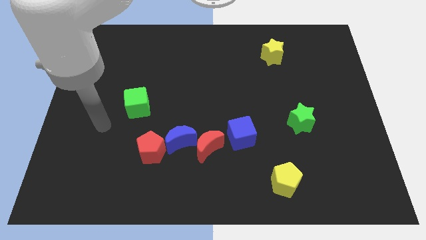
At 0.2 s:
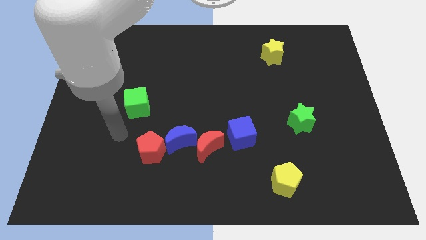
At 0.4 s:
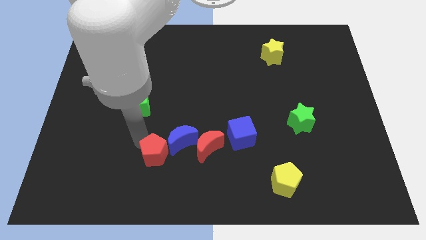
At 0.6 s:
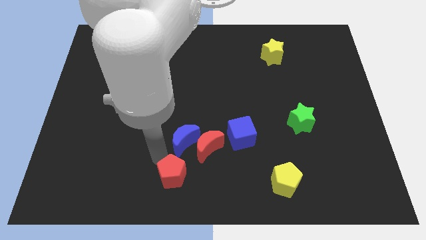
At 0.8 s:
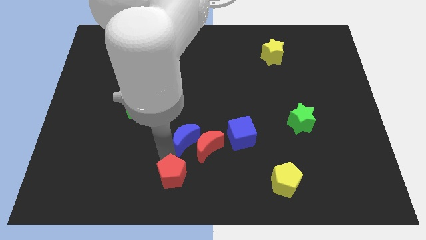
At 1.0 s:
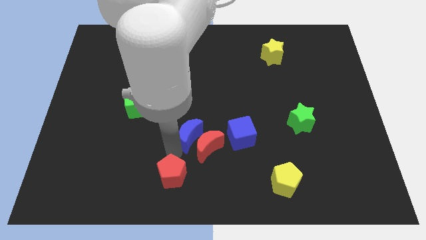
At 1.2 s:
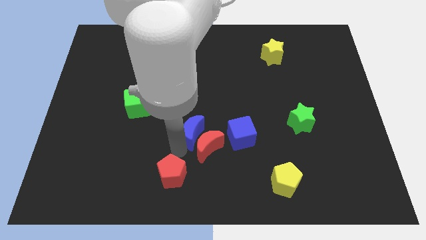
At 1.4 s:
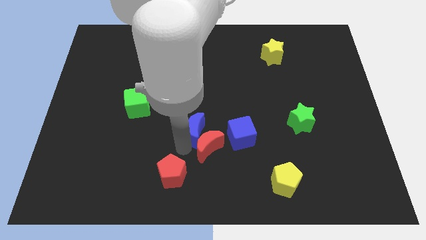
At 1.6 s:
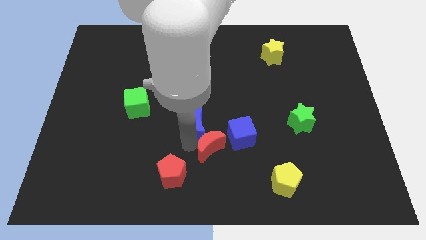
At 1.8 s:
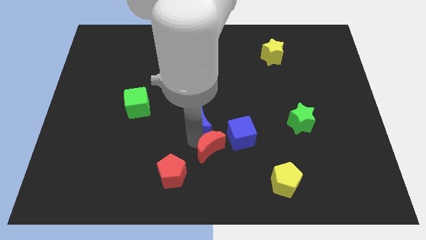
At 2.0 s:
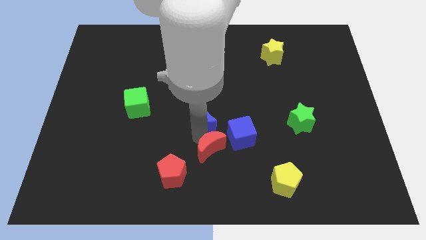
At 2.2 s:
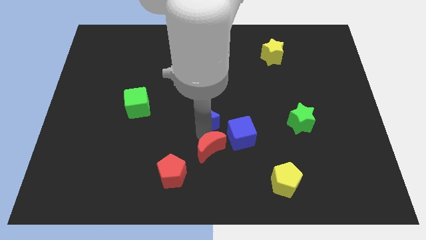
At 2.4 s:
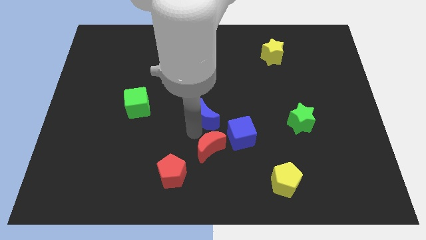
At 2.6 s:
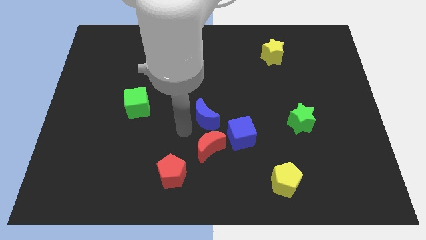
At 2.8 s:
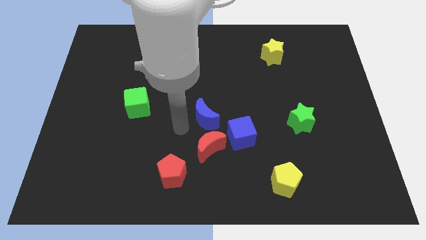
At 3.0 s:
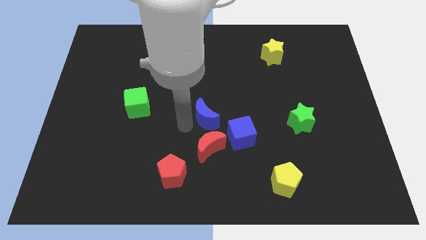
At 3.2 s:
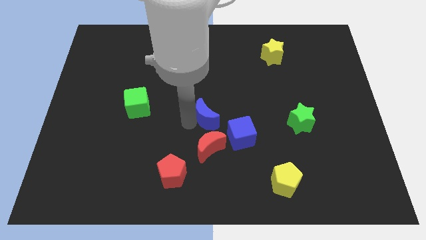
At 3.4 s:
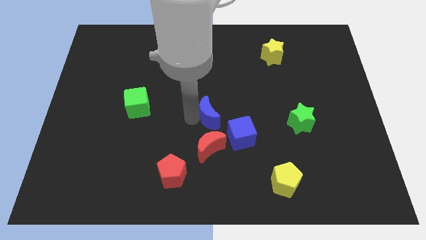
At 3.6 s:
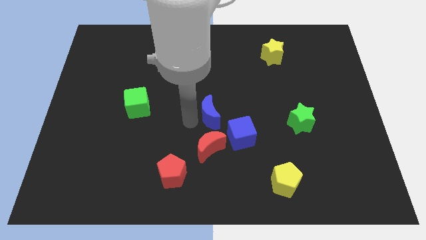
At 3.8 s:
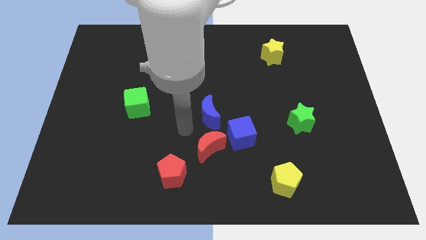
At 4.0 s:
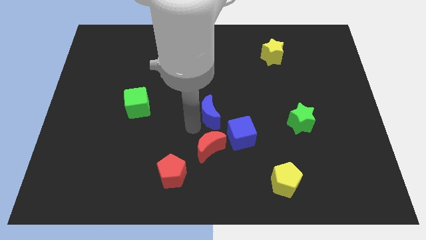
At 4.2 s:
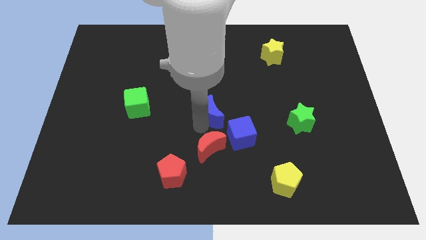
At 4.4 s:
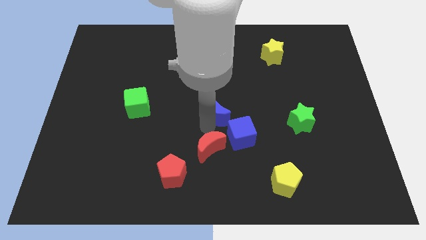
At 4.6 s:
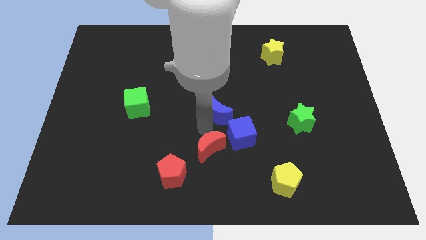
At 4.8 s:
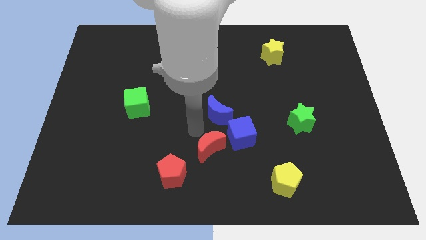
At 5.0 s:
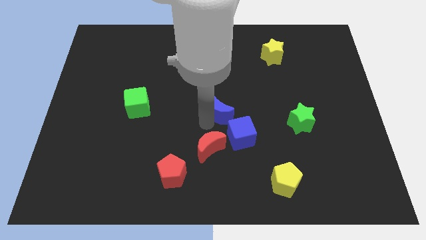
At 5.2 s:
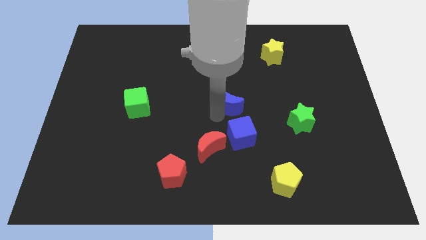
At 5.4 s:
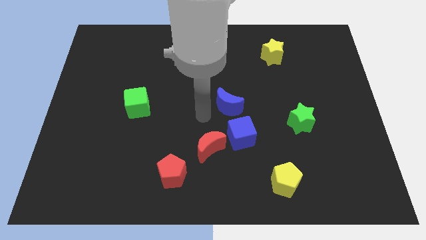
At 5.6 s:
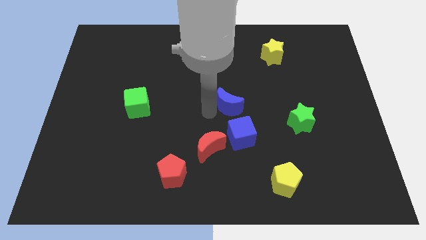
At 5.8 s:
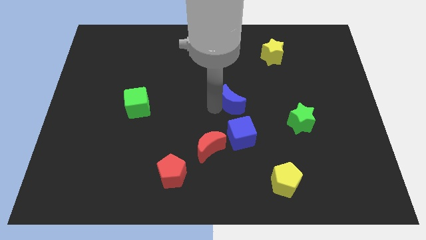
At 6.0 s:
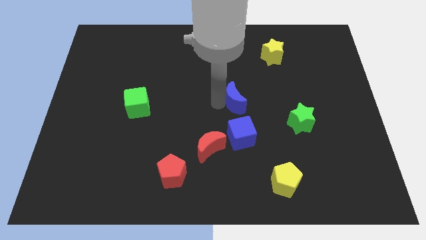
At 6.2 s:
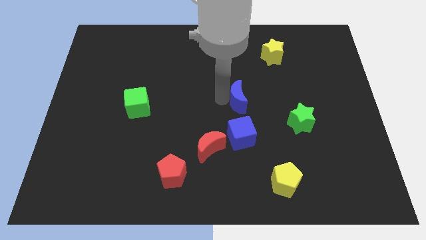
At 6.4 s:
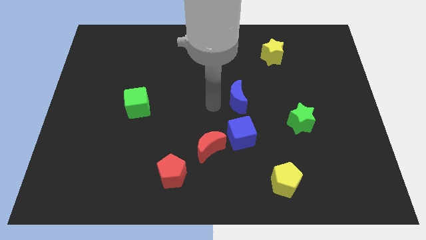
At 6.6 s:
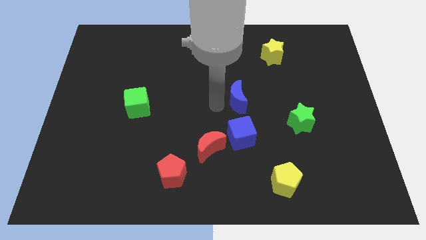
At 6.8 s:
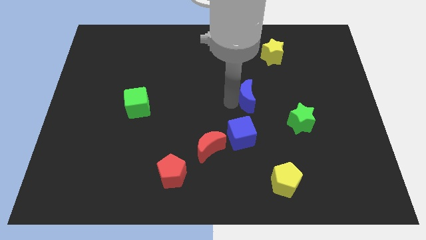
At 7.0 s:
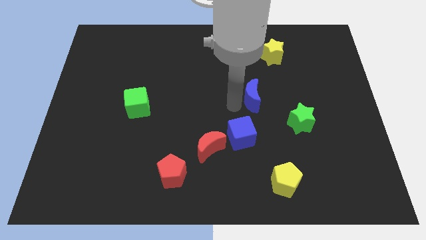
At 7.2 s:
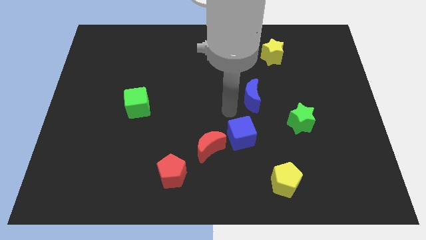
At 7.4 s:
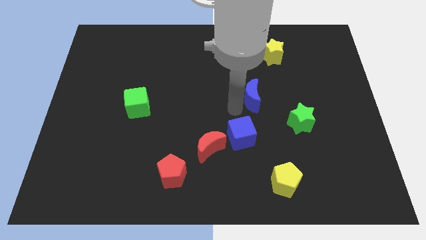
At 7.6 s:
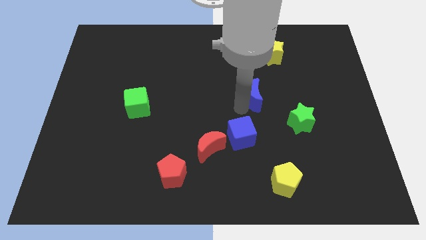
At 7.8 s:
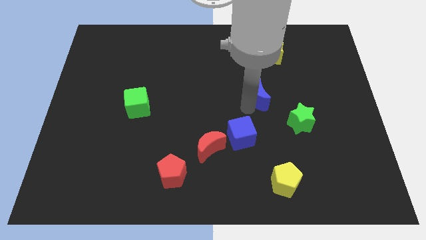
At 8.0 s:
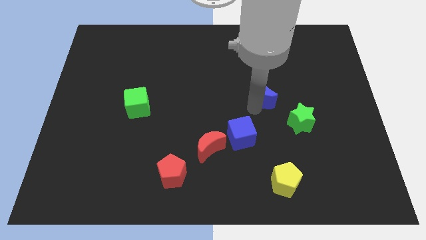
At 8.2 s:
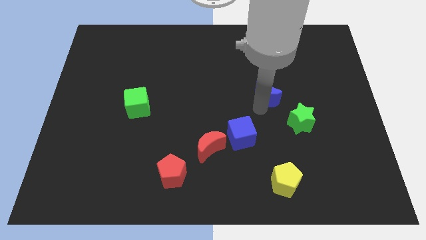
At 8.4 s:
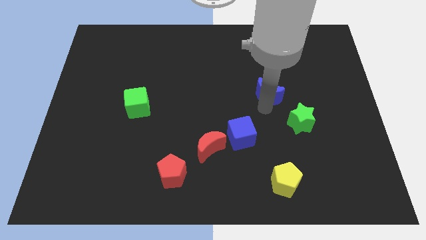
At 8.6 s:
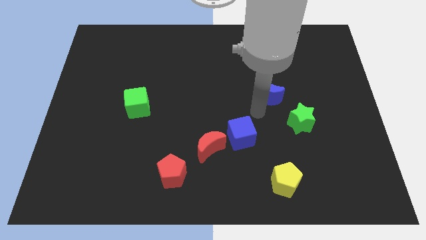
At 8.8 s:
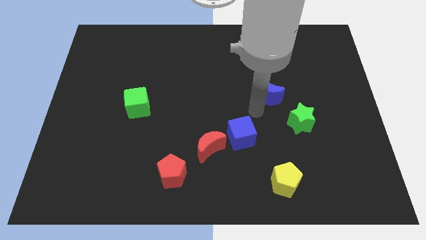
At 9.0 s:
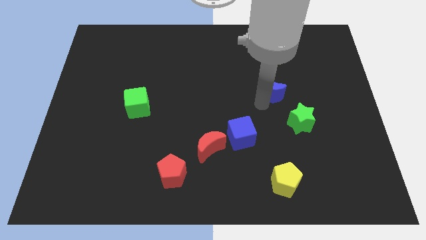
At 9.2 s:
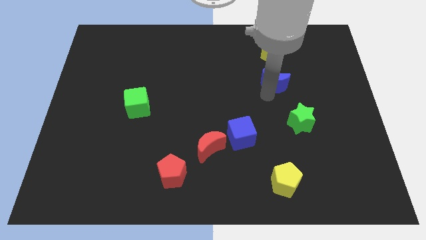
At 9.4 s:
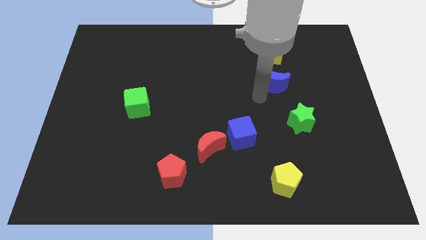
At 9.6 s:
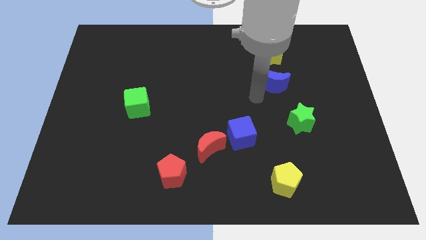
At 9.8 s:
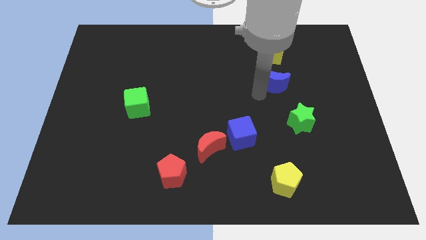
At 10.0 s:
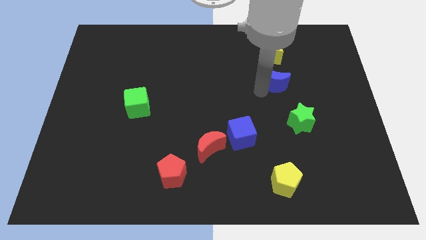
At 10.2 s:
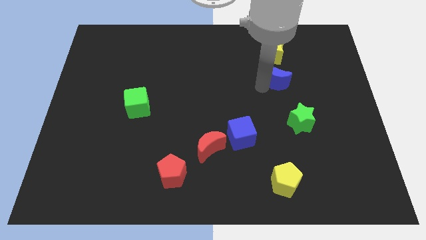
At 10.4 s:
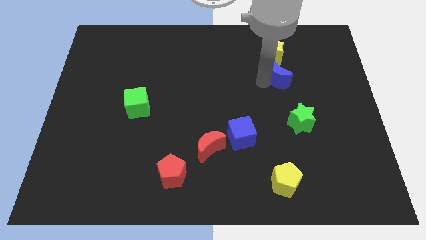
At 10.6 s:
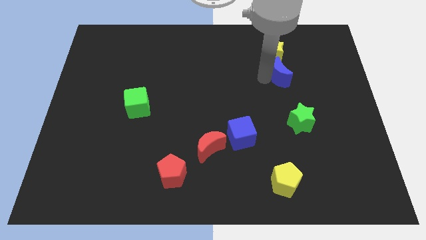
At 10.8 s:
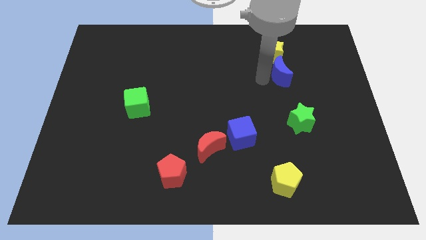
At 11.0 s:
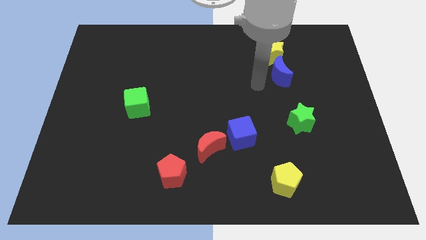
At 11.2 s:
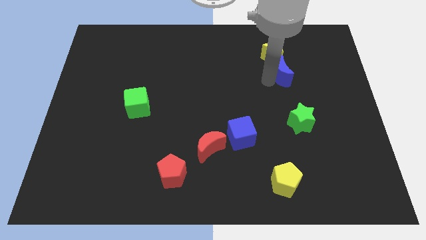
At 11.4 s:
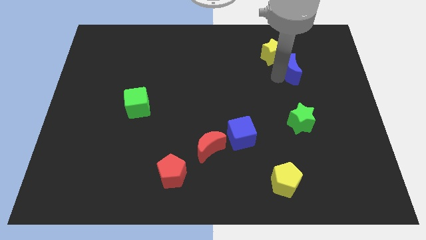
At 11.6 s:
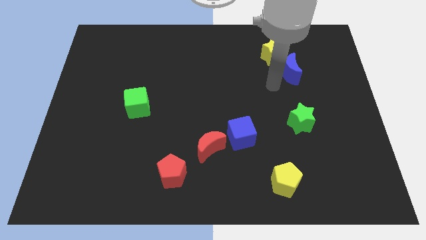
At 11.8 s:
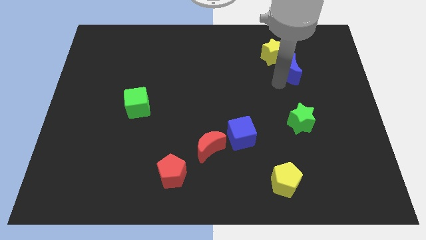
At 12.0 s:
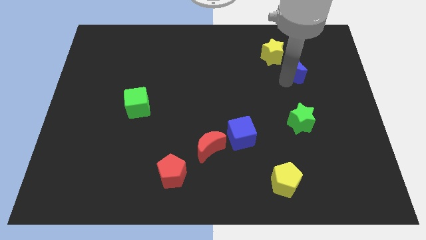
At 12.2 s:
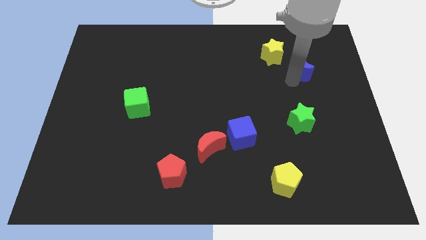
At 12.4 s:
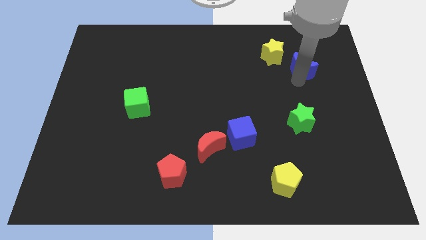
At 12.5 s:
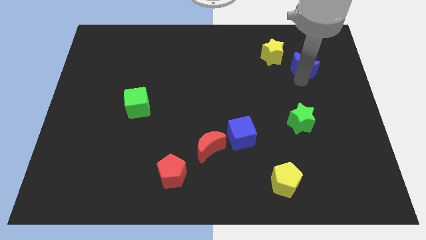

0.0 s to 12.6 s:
move the blue moon to the right of the yellow star

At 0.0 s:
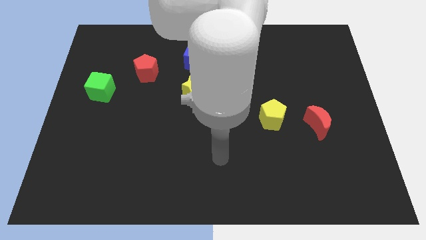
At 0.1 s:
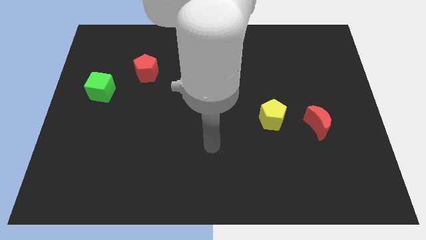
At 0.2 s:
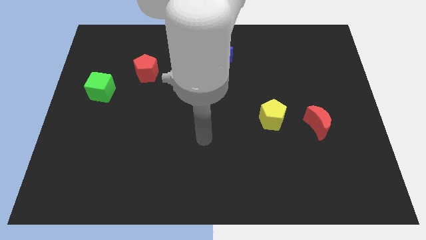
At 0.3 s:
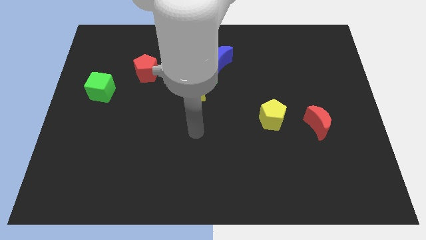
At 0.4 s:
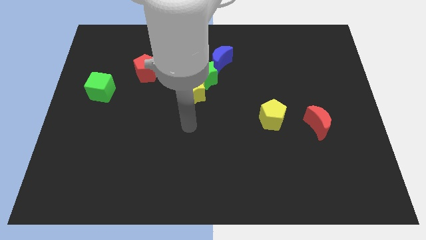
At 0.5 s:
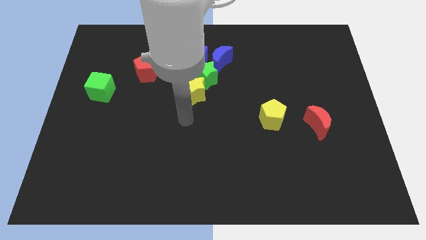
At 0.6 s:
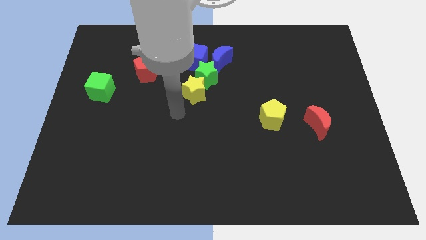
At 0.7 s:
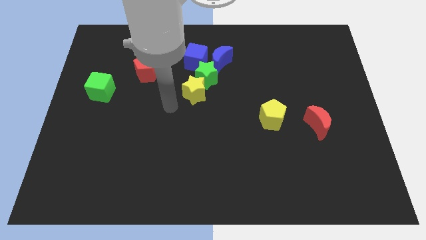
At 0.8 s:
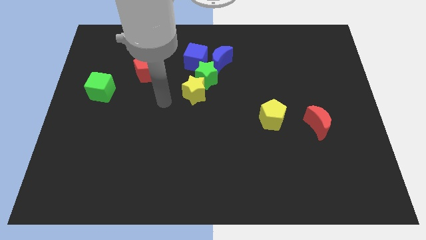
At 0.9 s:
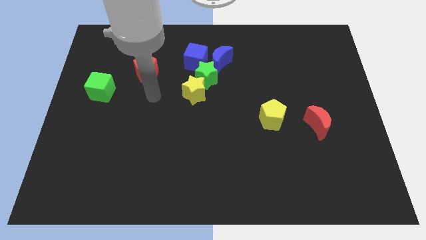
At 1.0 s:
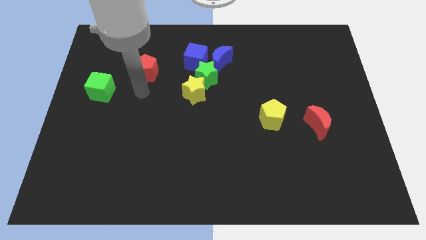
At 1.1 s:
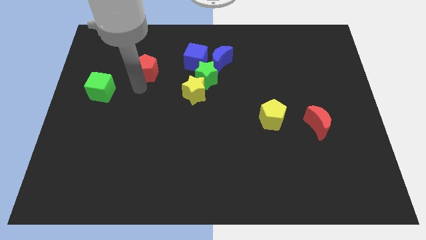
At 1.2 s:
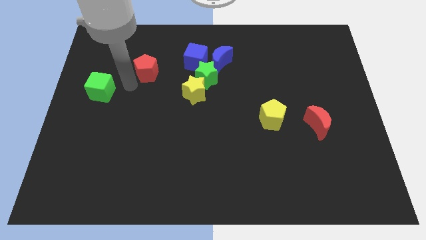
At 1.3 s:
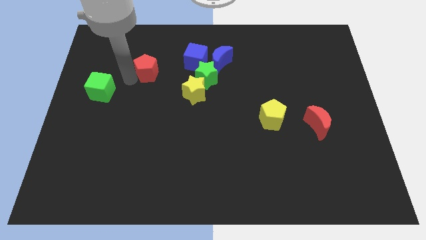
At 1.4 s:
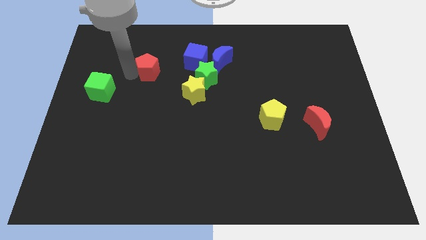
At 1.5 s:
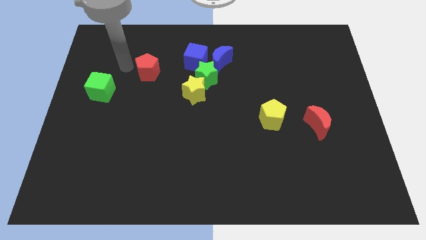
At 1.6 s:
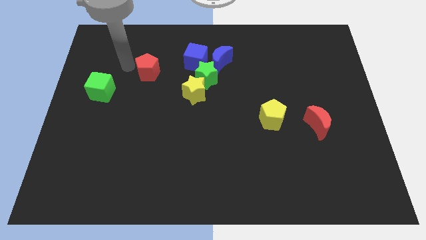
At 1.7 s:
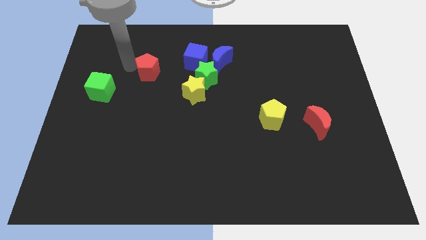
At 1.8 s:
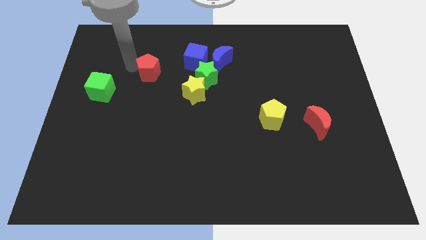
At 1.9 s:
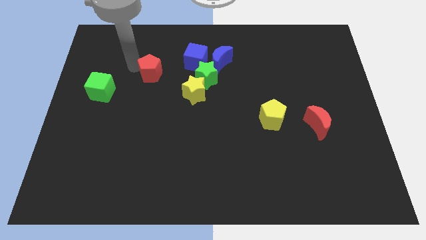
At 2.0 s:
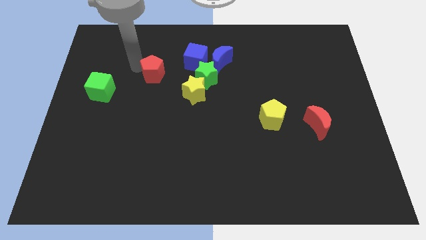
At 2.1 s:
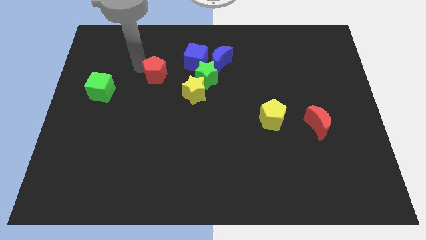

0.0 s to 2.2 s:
push the red pentagon to the bottom left side of the blue cube
